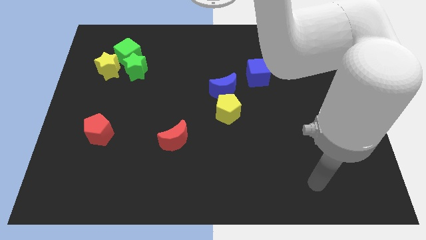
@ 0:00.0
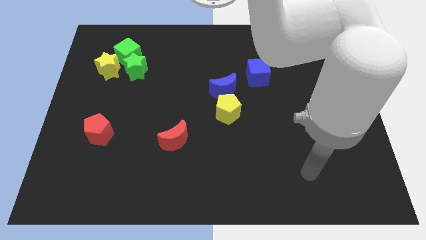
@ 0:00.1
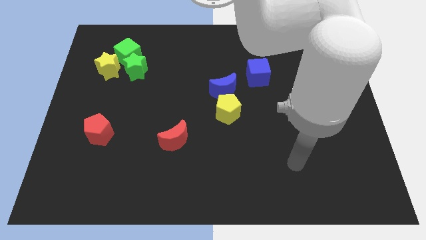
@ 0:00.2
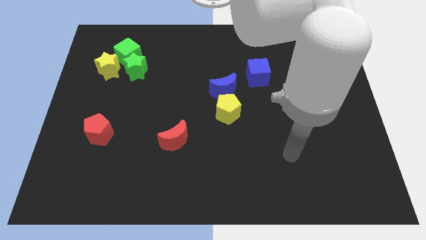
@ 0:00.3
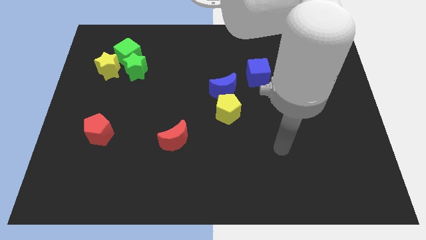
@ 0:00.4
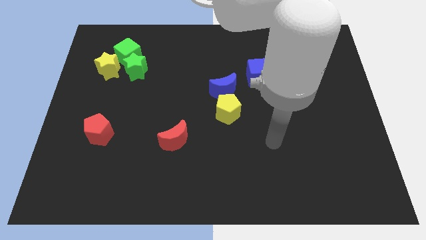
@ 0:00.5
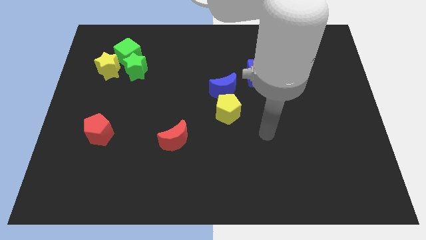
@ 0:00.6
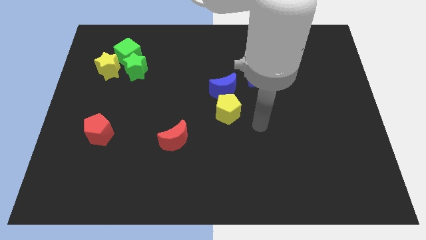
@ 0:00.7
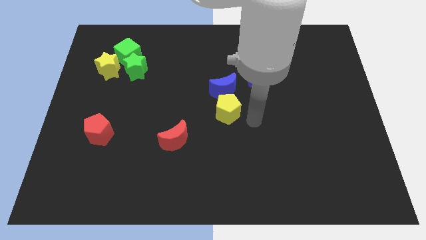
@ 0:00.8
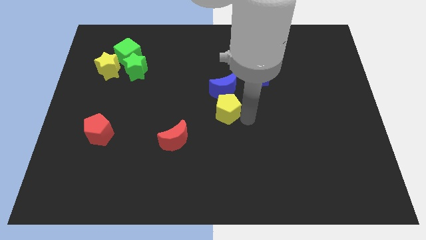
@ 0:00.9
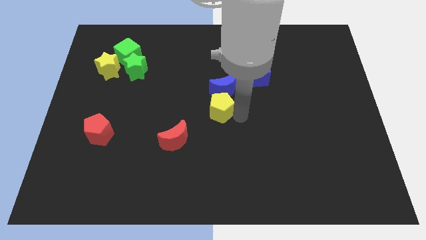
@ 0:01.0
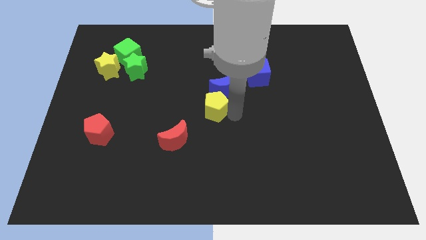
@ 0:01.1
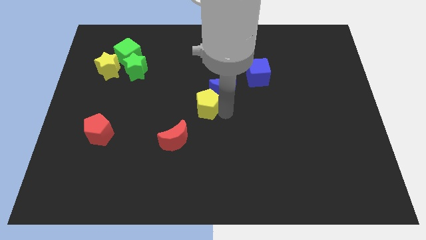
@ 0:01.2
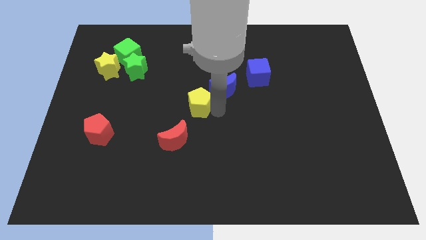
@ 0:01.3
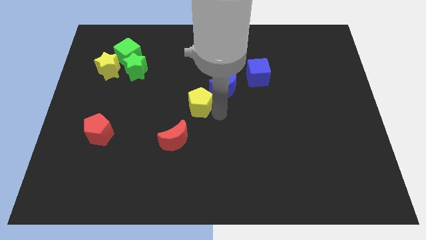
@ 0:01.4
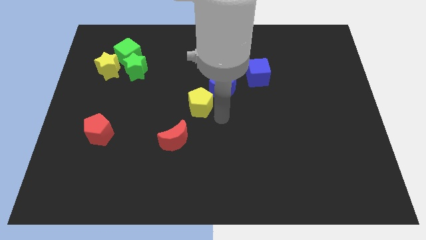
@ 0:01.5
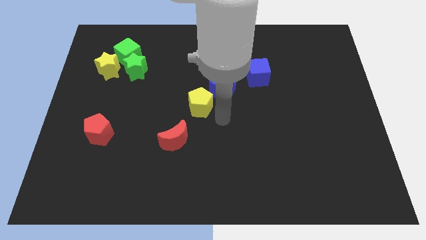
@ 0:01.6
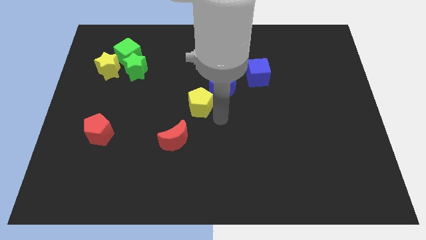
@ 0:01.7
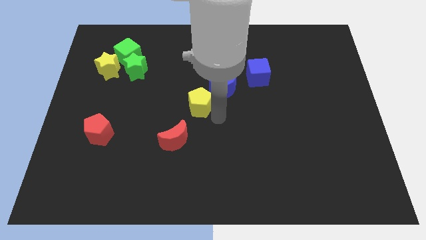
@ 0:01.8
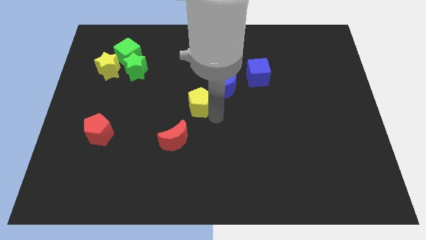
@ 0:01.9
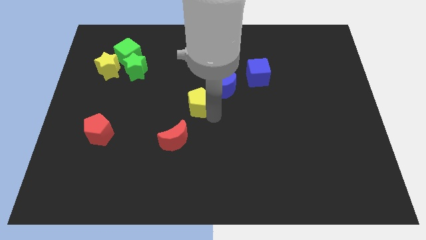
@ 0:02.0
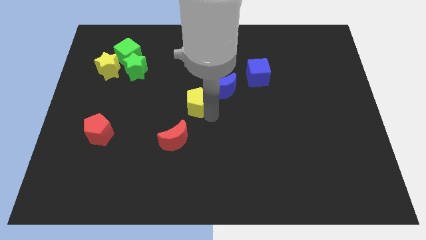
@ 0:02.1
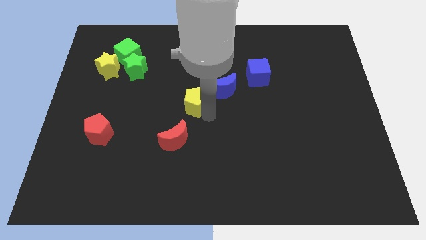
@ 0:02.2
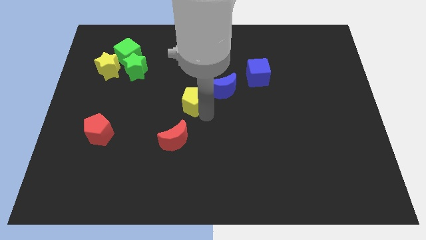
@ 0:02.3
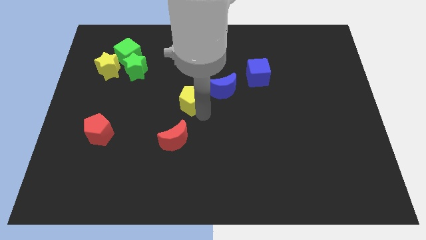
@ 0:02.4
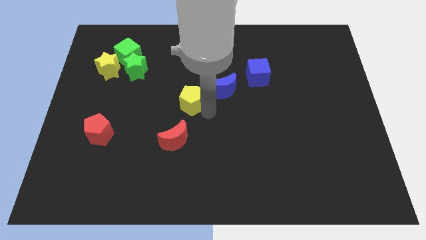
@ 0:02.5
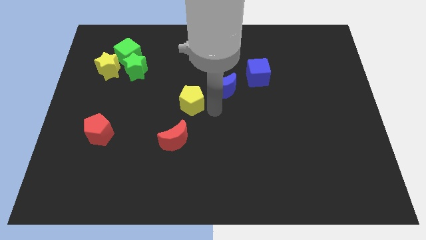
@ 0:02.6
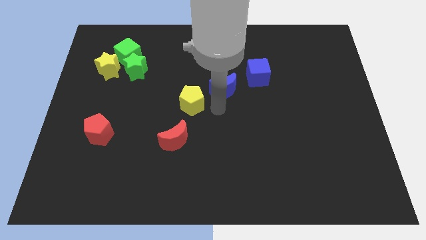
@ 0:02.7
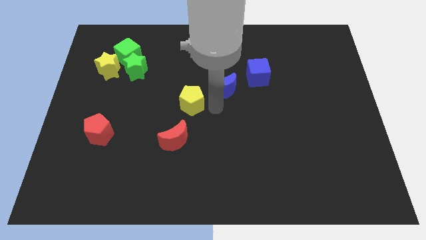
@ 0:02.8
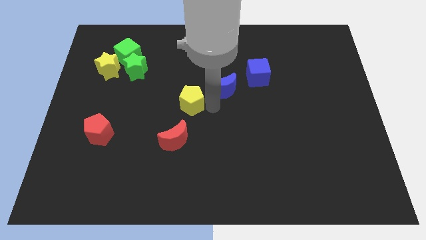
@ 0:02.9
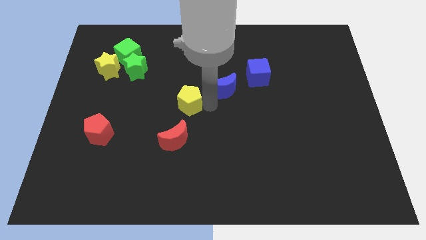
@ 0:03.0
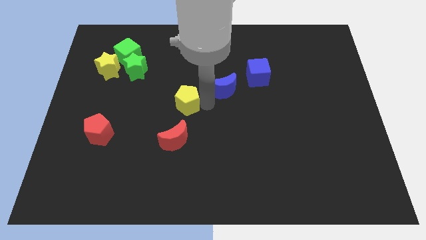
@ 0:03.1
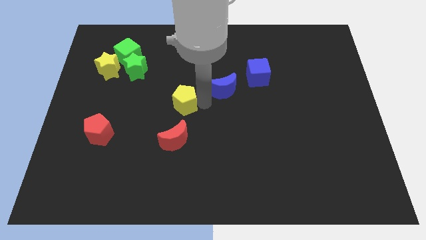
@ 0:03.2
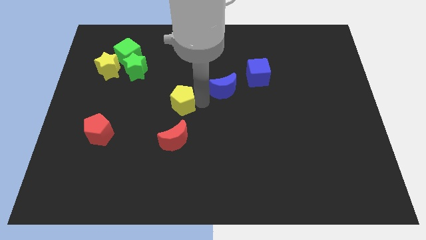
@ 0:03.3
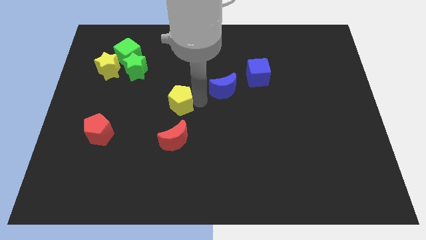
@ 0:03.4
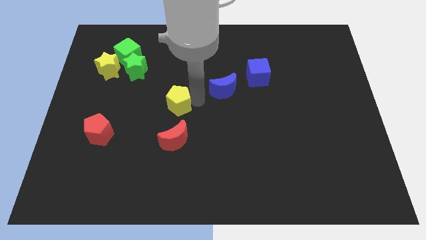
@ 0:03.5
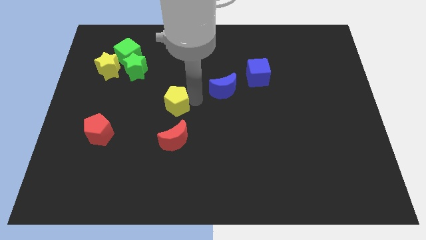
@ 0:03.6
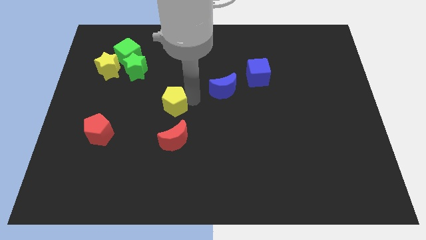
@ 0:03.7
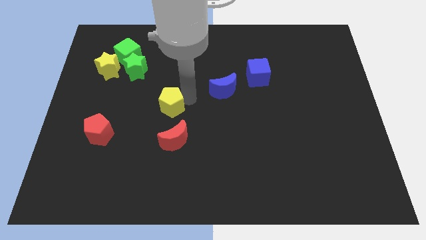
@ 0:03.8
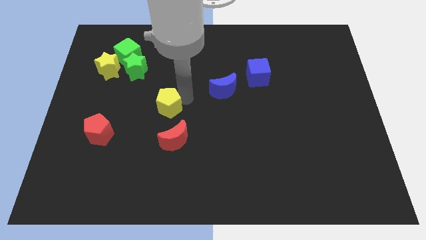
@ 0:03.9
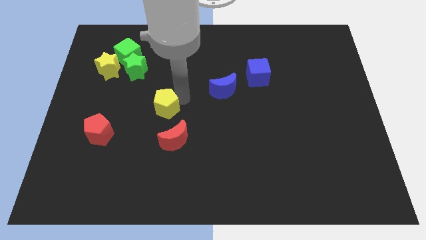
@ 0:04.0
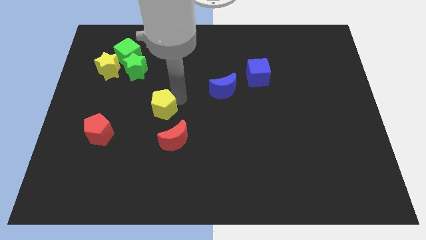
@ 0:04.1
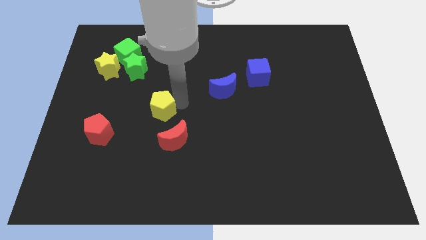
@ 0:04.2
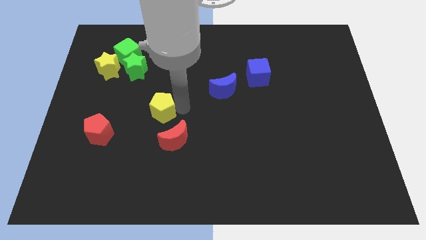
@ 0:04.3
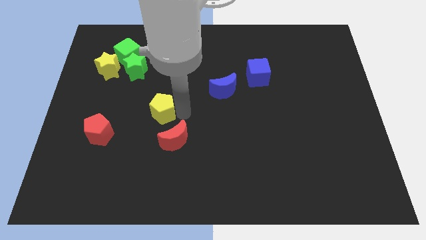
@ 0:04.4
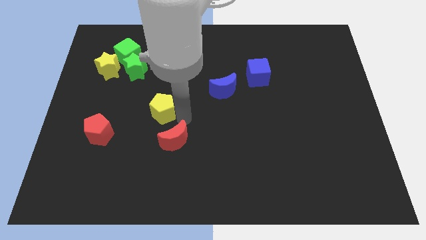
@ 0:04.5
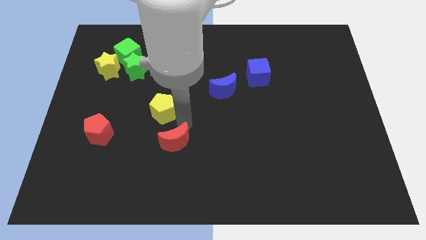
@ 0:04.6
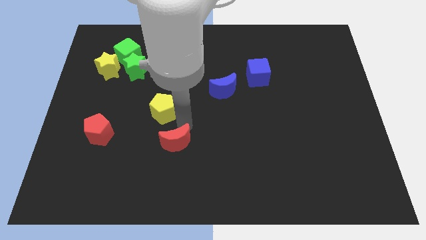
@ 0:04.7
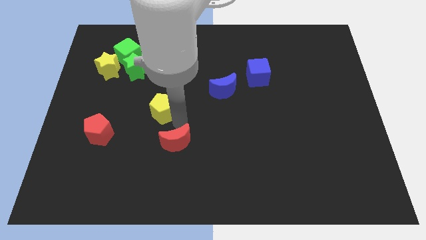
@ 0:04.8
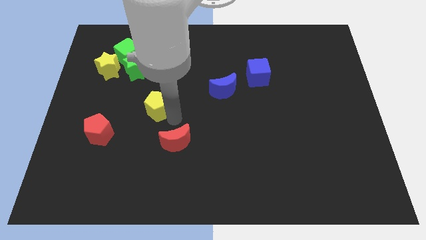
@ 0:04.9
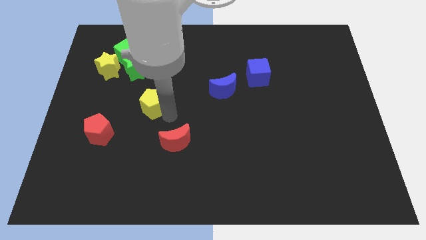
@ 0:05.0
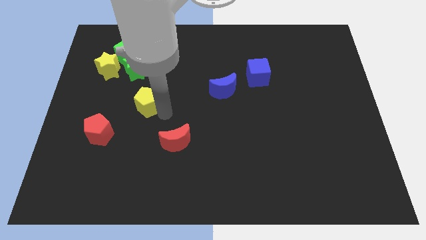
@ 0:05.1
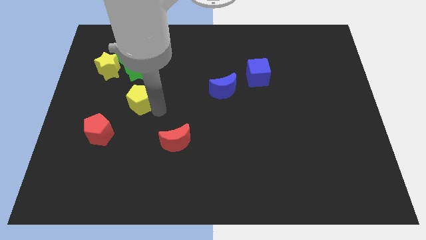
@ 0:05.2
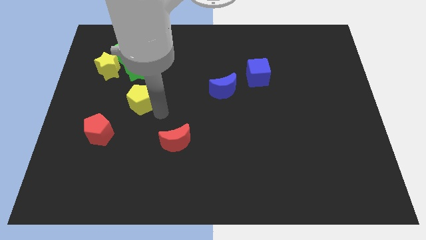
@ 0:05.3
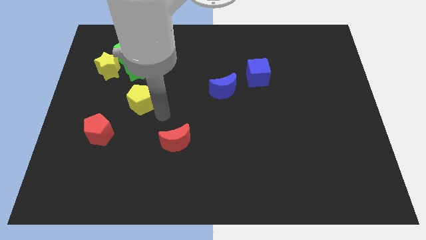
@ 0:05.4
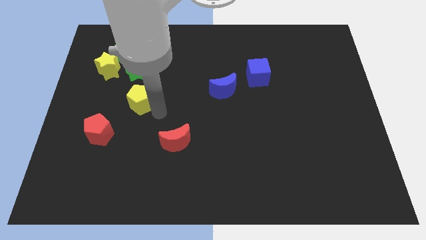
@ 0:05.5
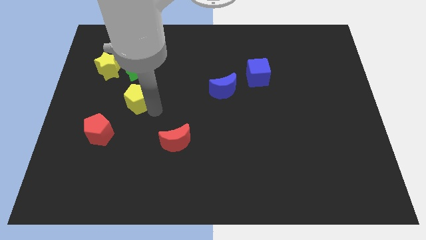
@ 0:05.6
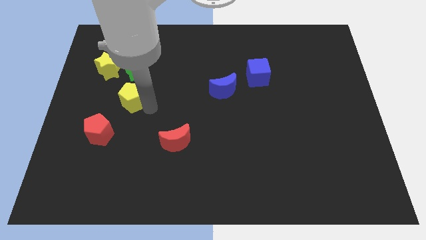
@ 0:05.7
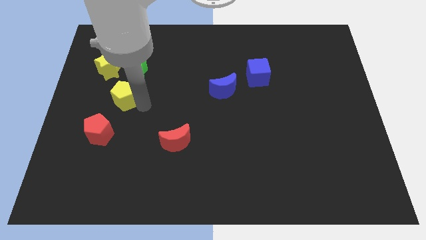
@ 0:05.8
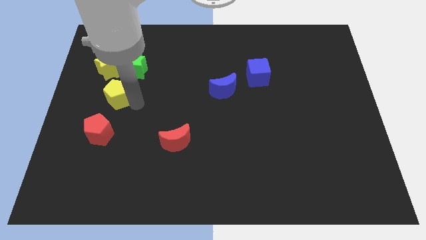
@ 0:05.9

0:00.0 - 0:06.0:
push the yellow pentagon to the bottom left of the green star

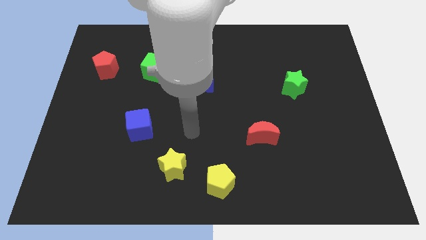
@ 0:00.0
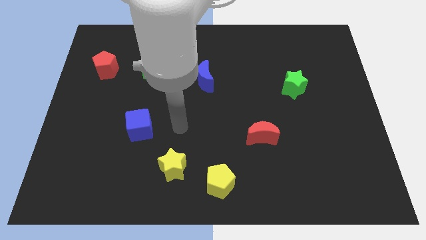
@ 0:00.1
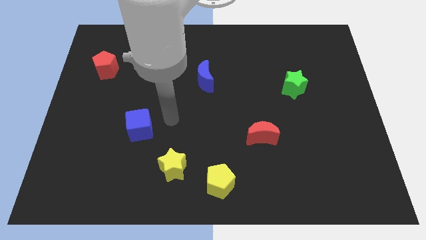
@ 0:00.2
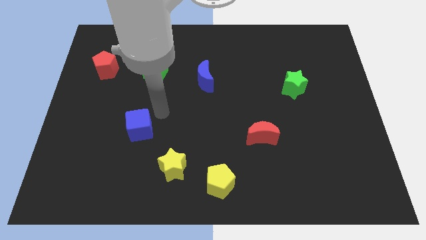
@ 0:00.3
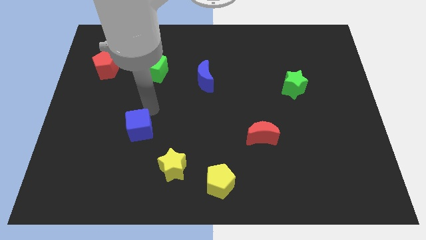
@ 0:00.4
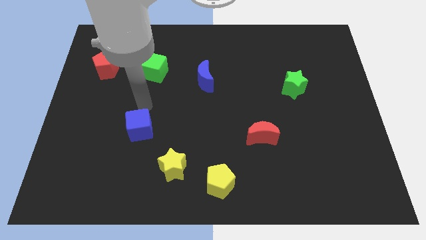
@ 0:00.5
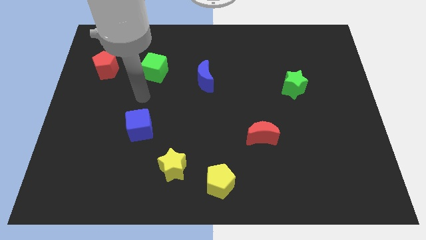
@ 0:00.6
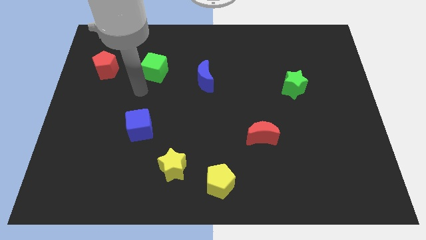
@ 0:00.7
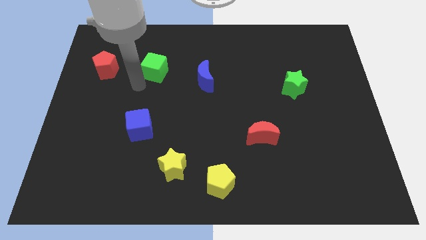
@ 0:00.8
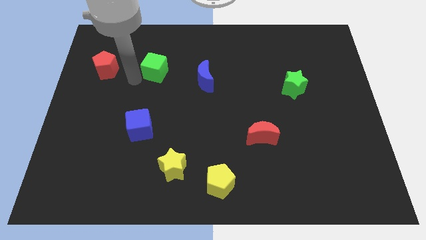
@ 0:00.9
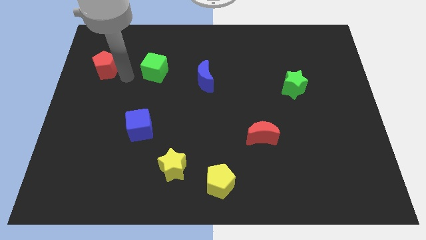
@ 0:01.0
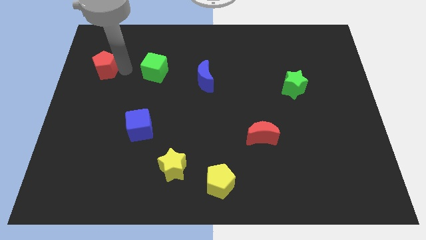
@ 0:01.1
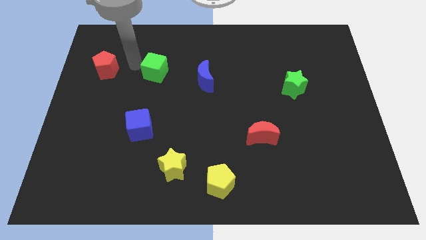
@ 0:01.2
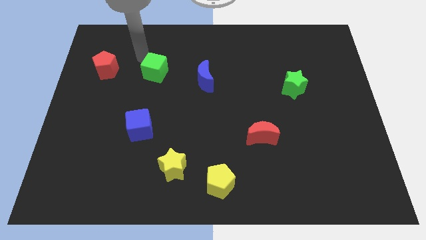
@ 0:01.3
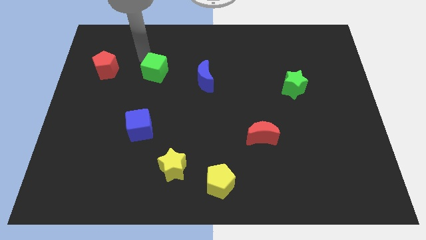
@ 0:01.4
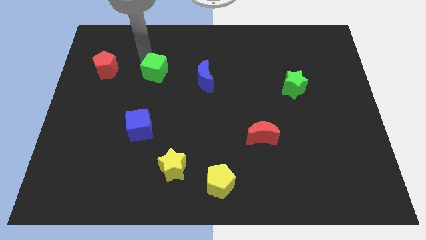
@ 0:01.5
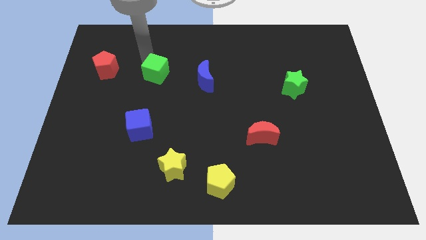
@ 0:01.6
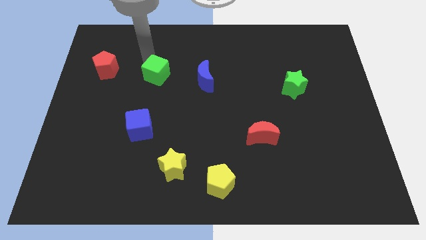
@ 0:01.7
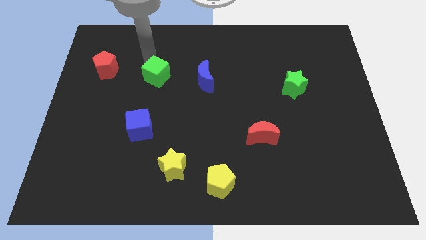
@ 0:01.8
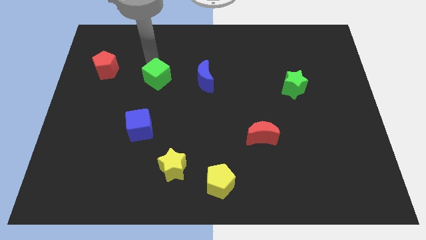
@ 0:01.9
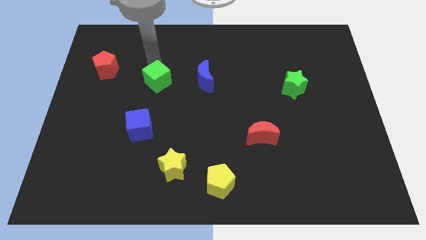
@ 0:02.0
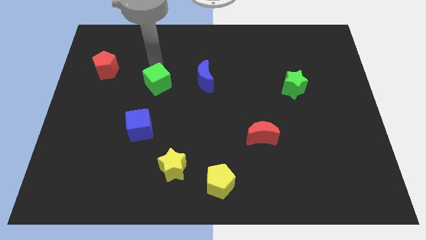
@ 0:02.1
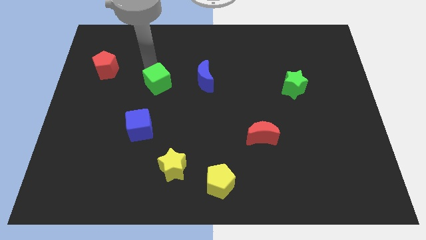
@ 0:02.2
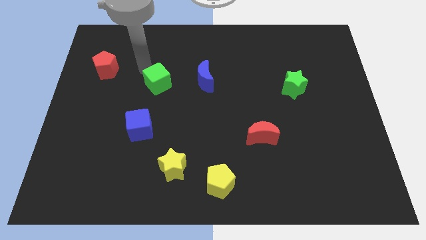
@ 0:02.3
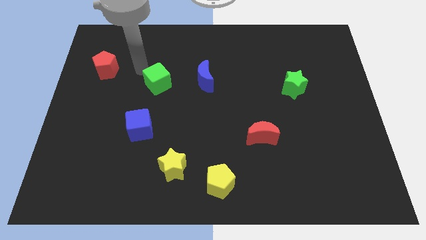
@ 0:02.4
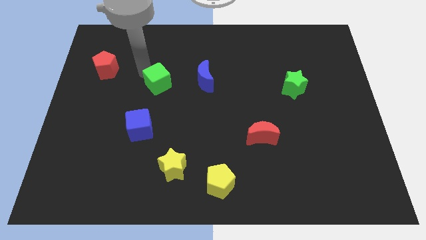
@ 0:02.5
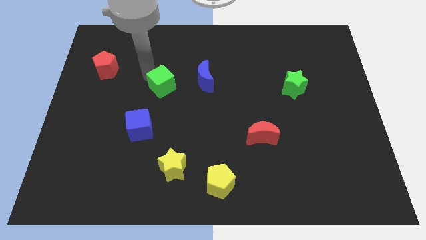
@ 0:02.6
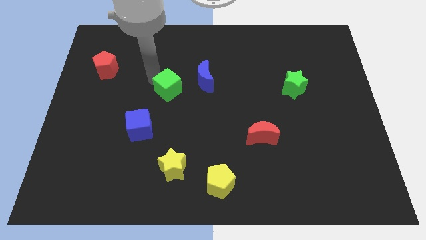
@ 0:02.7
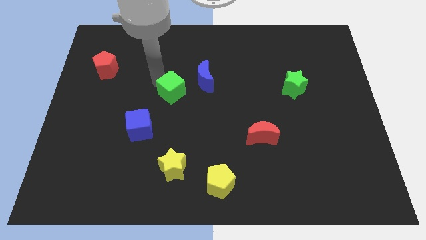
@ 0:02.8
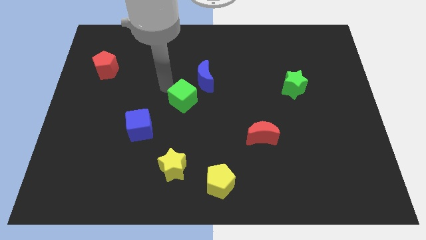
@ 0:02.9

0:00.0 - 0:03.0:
slide the green cube to the bottom side of the blue moon
